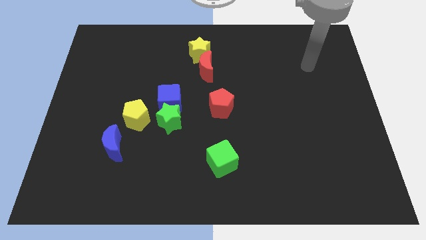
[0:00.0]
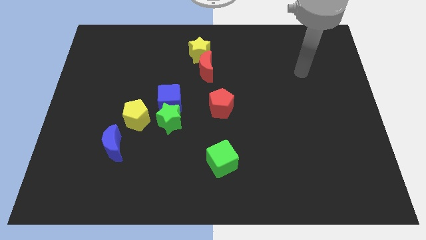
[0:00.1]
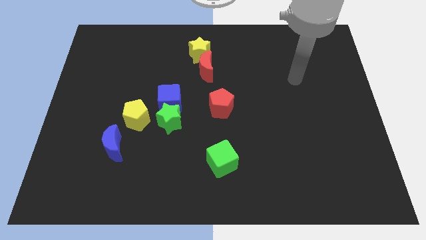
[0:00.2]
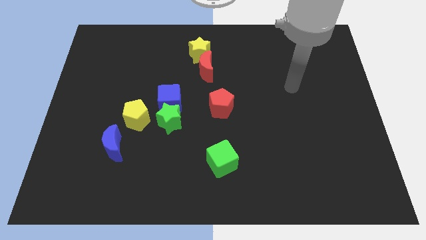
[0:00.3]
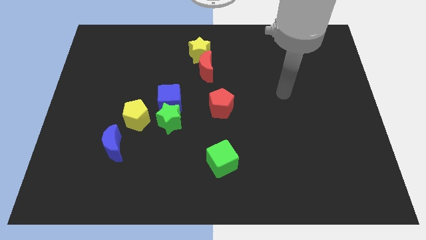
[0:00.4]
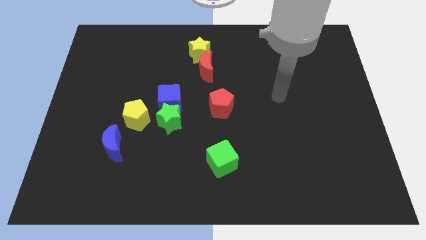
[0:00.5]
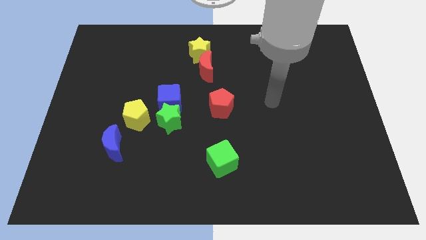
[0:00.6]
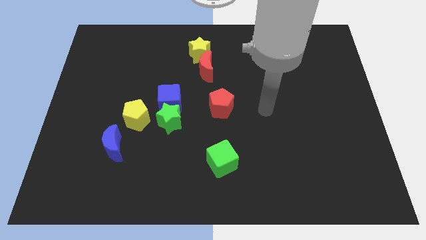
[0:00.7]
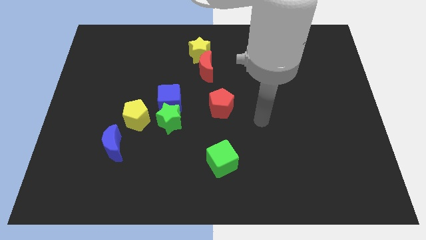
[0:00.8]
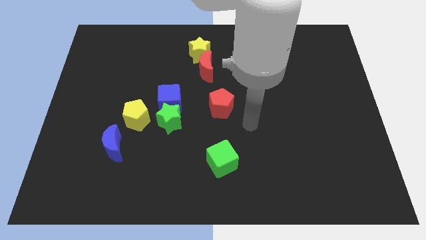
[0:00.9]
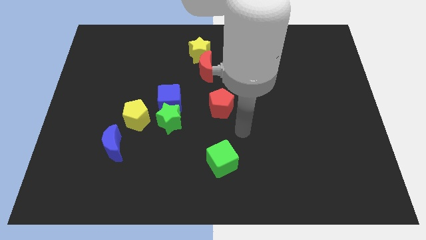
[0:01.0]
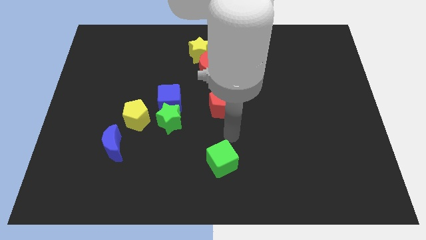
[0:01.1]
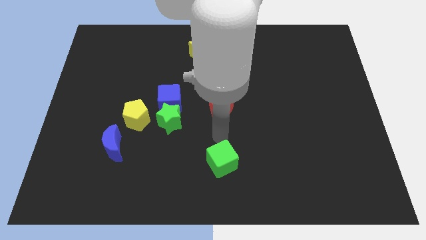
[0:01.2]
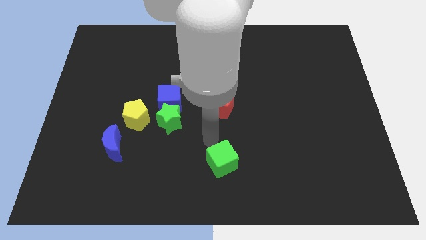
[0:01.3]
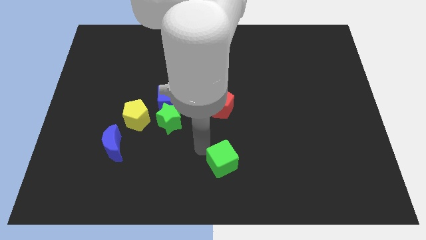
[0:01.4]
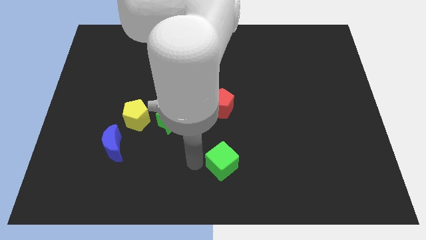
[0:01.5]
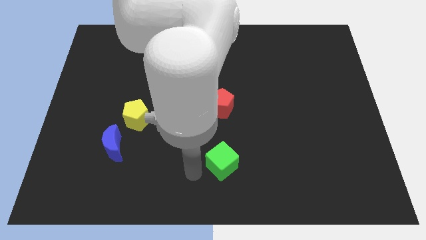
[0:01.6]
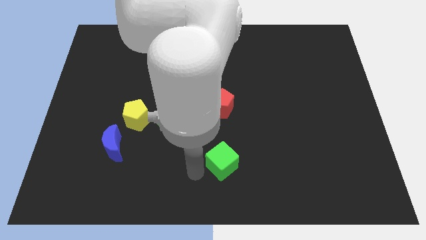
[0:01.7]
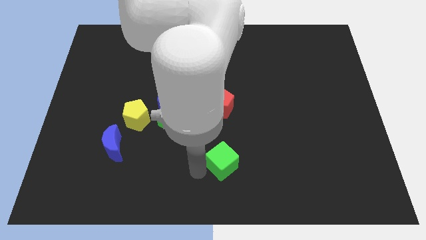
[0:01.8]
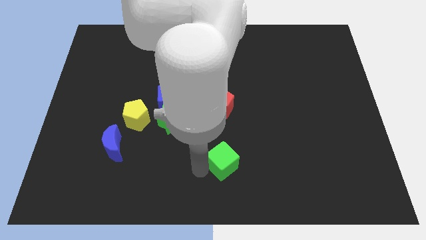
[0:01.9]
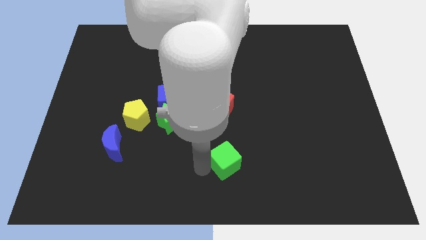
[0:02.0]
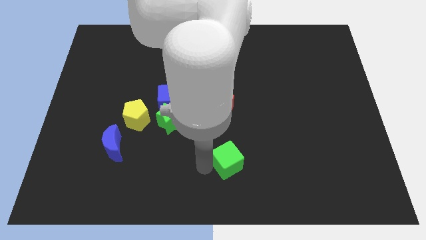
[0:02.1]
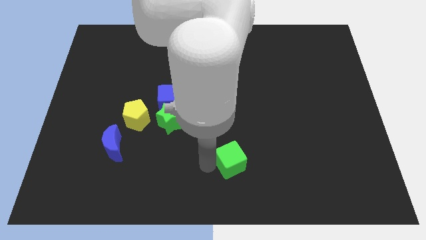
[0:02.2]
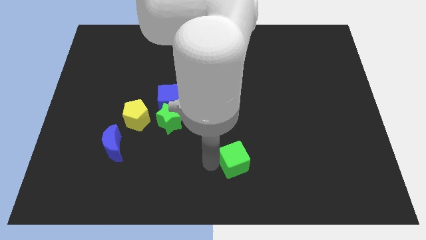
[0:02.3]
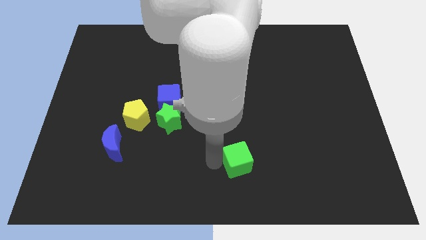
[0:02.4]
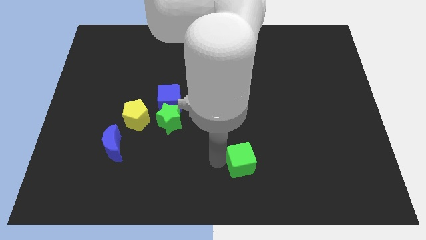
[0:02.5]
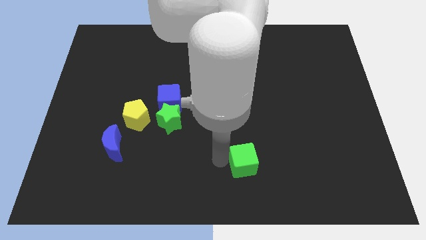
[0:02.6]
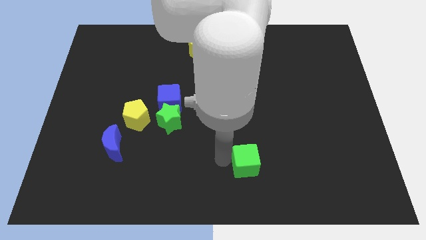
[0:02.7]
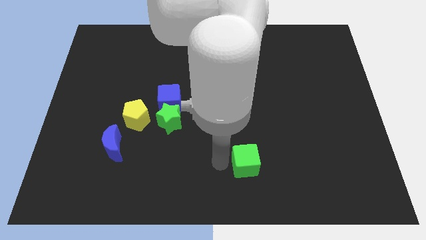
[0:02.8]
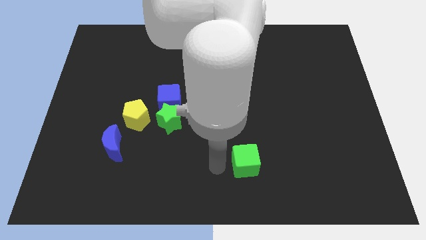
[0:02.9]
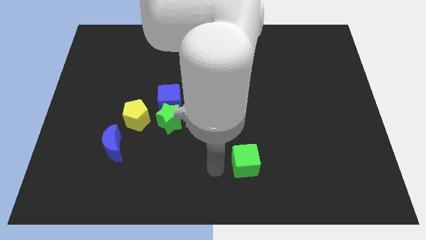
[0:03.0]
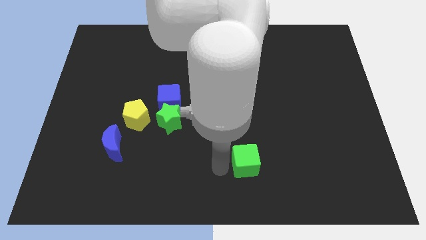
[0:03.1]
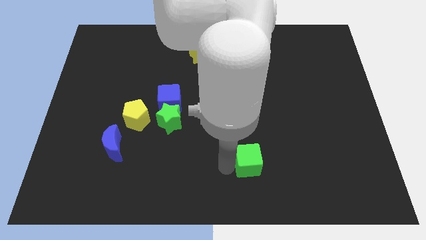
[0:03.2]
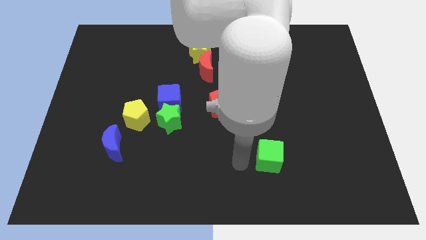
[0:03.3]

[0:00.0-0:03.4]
slightly push the green cube right

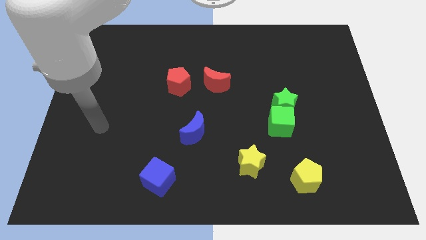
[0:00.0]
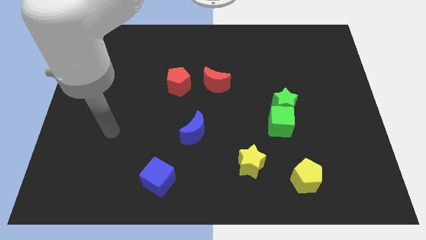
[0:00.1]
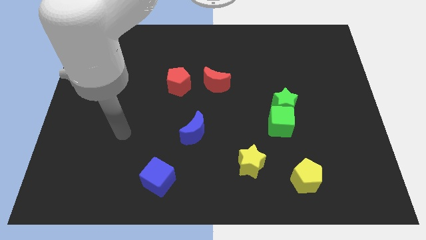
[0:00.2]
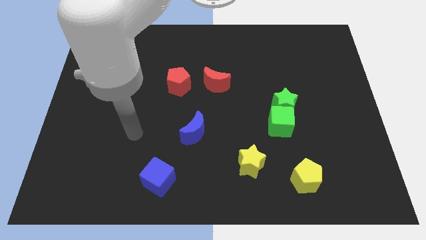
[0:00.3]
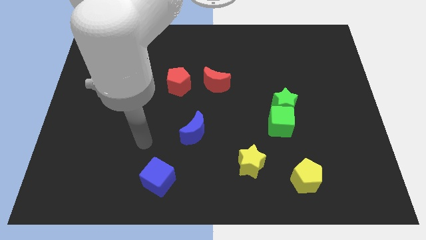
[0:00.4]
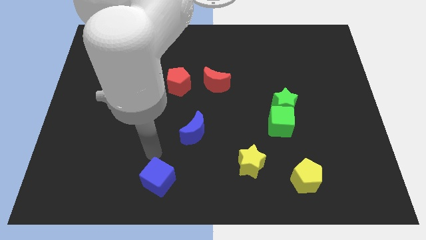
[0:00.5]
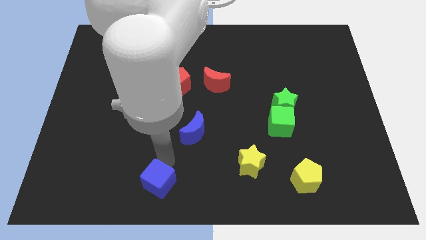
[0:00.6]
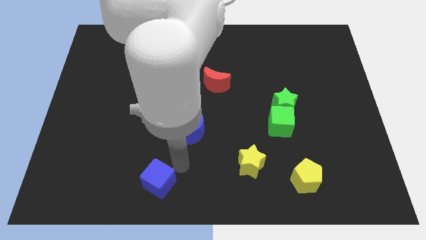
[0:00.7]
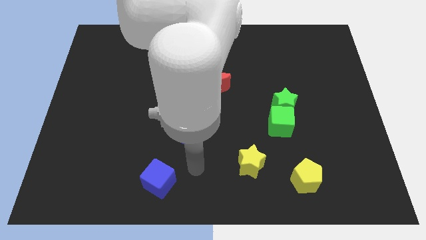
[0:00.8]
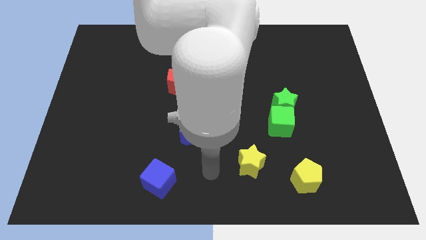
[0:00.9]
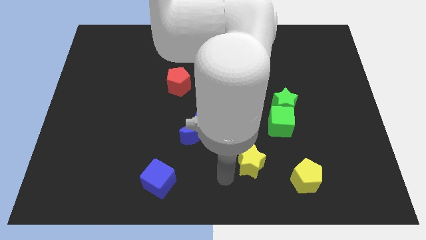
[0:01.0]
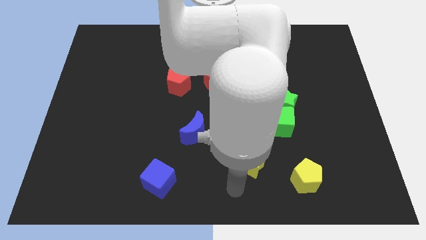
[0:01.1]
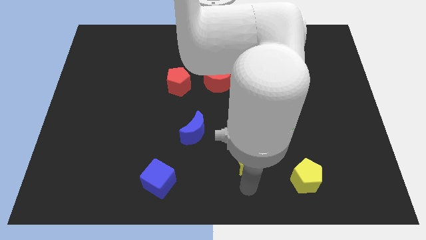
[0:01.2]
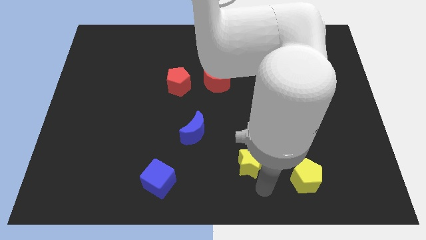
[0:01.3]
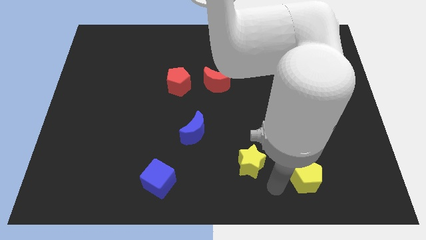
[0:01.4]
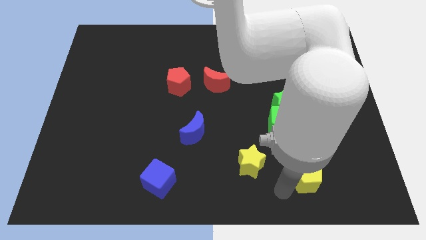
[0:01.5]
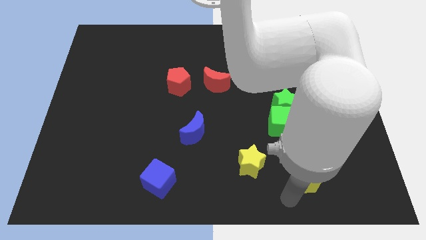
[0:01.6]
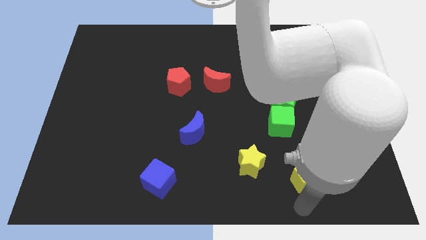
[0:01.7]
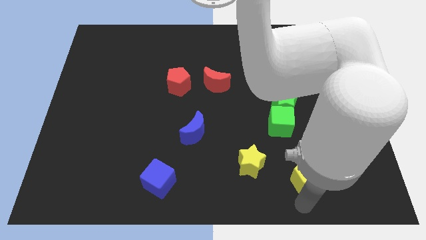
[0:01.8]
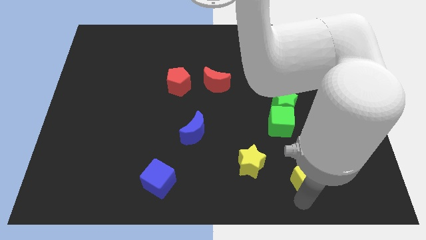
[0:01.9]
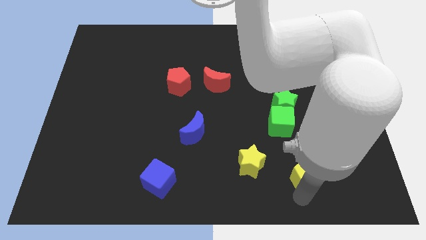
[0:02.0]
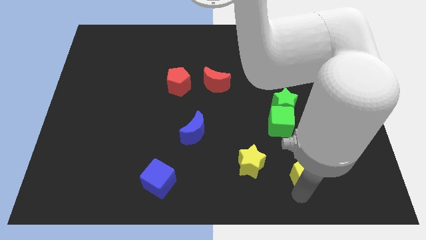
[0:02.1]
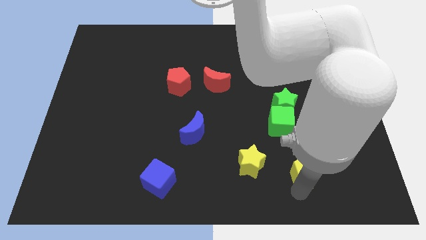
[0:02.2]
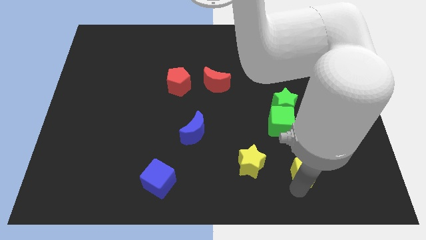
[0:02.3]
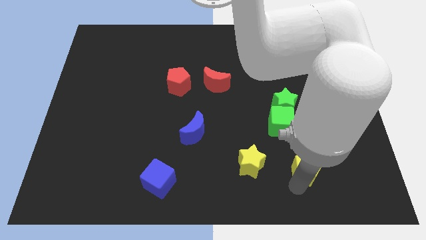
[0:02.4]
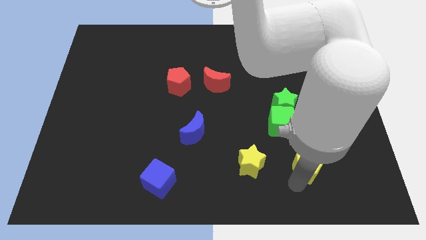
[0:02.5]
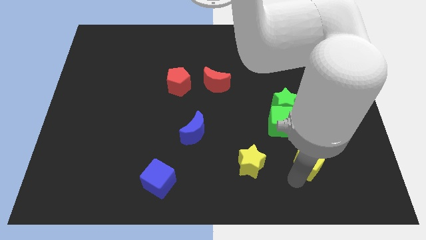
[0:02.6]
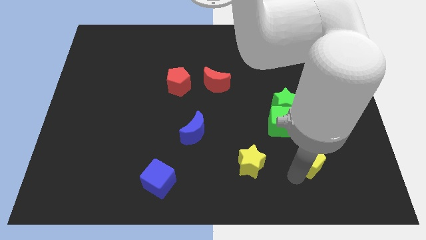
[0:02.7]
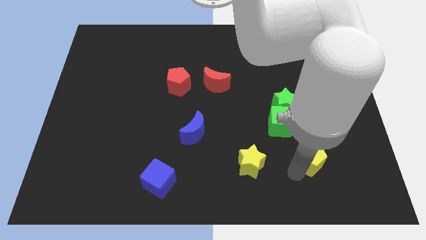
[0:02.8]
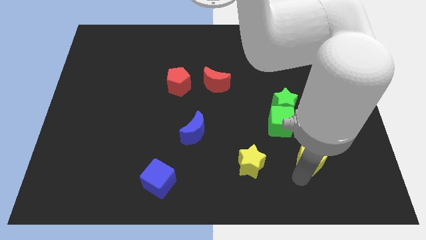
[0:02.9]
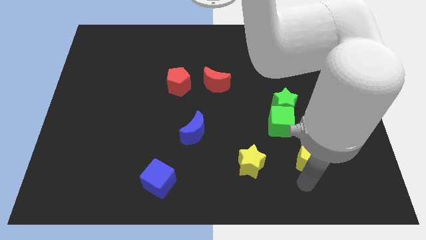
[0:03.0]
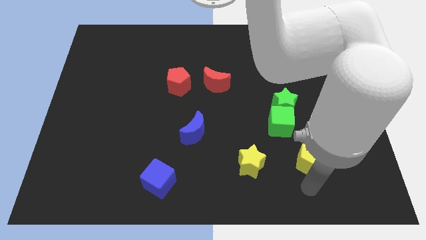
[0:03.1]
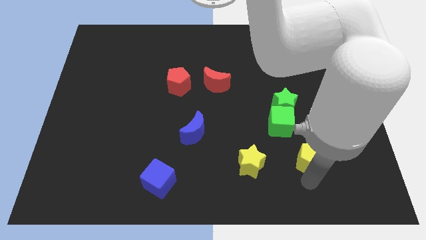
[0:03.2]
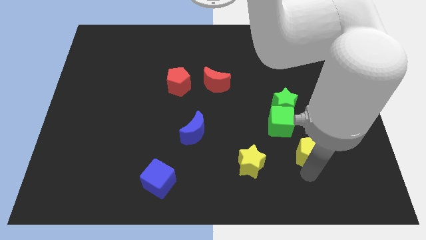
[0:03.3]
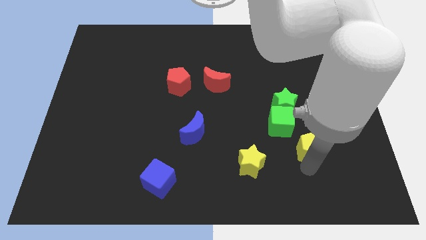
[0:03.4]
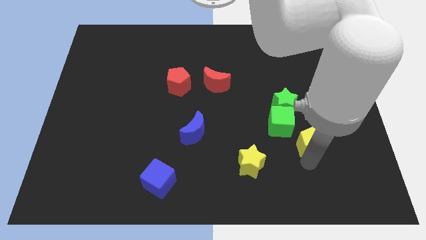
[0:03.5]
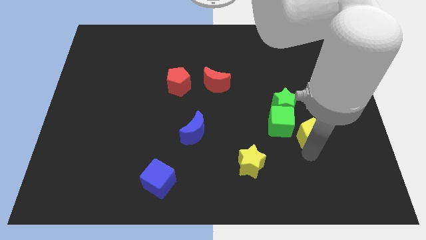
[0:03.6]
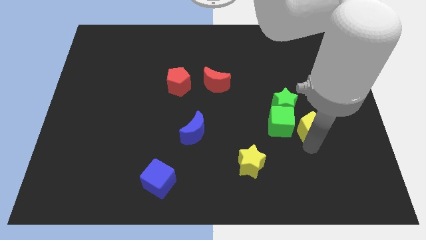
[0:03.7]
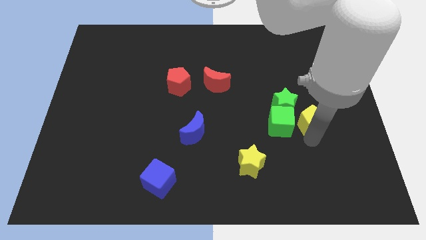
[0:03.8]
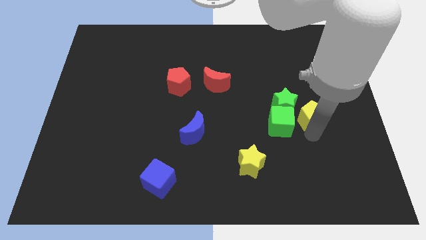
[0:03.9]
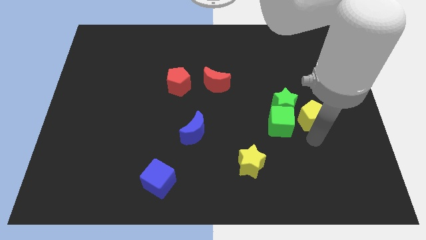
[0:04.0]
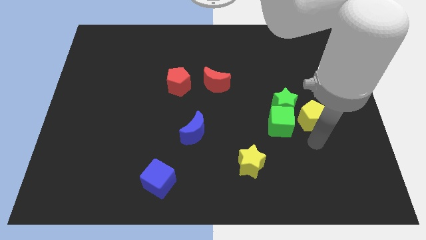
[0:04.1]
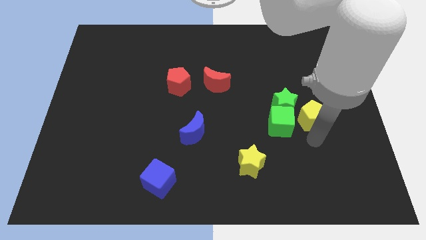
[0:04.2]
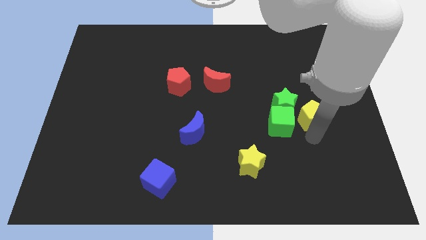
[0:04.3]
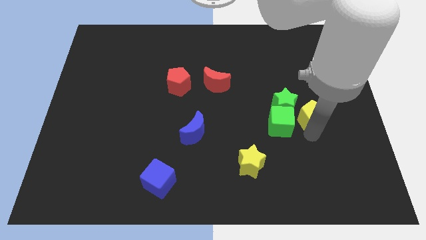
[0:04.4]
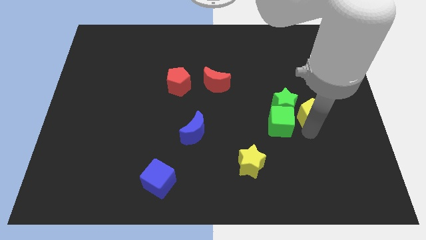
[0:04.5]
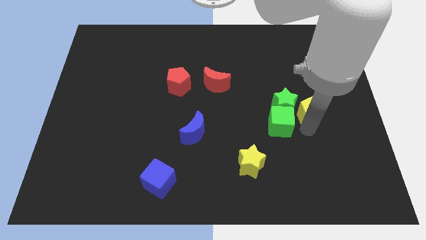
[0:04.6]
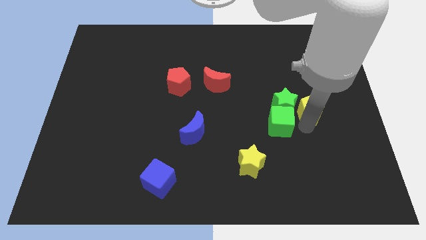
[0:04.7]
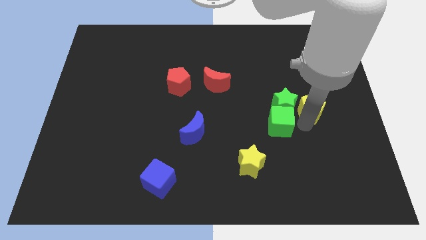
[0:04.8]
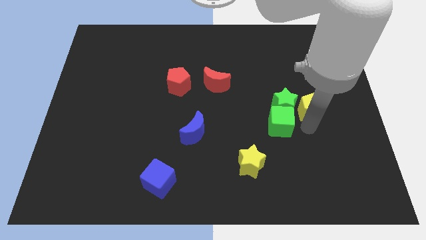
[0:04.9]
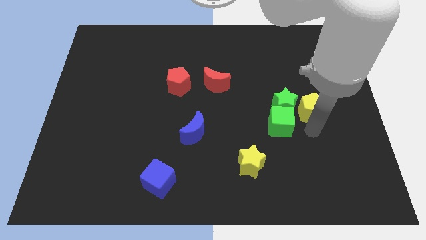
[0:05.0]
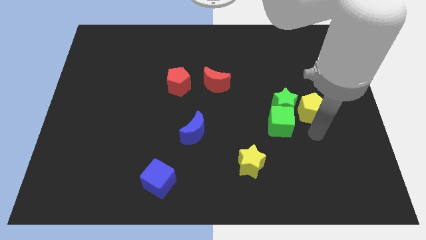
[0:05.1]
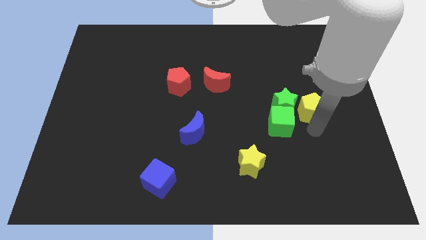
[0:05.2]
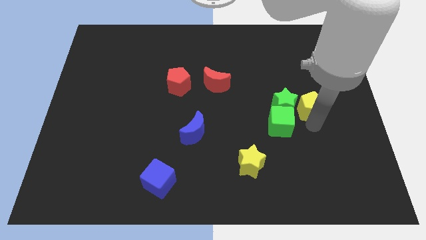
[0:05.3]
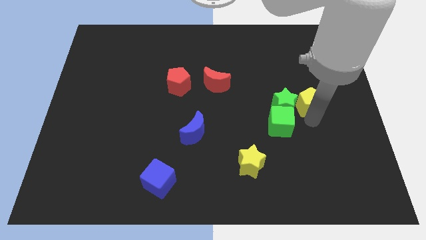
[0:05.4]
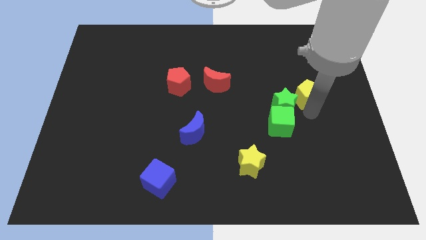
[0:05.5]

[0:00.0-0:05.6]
slide the yellow pentagon up
